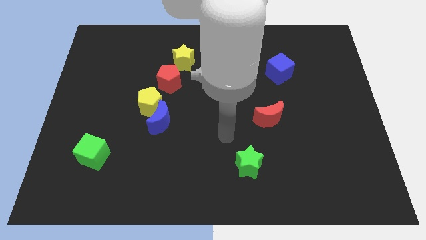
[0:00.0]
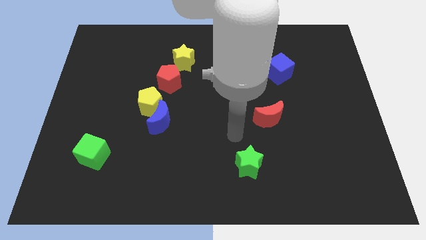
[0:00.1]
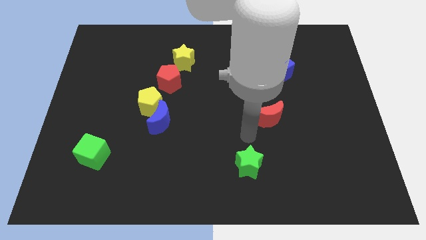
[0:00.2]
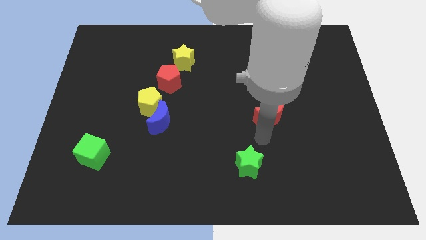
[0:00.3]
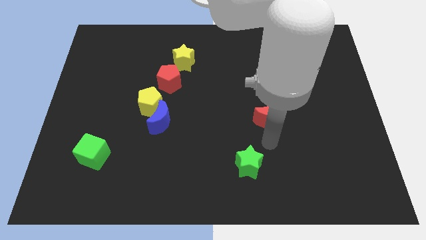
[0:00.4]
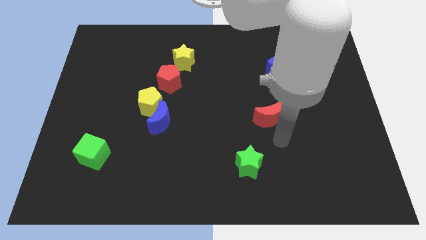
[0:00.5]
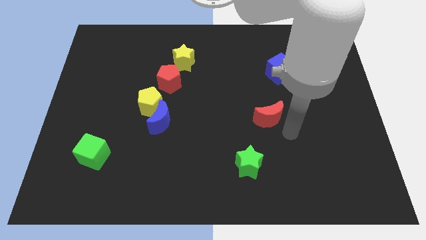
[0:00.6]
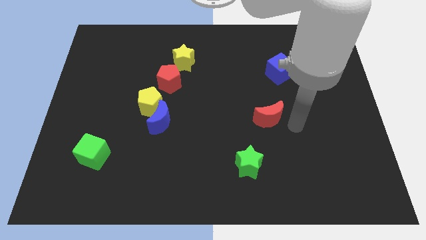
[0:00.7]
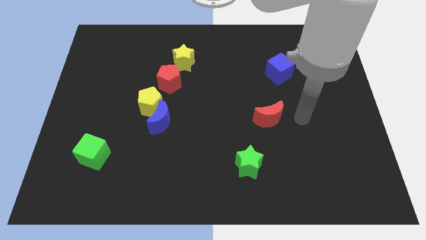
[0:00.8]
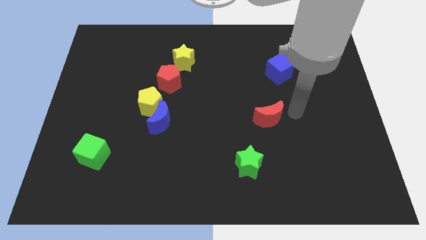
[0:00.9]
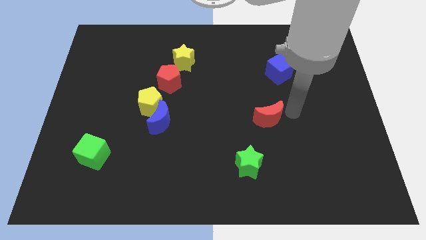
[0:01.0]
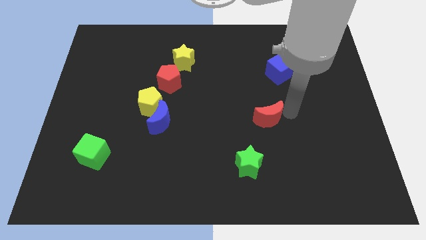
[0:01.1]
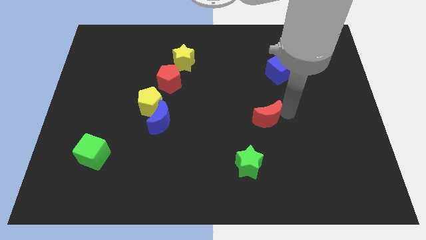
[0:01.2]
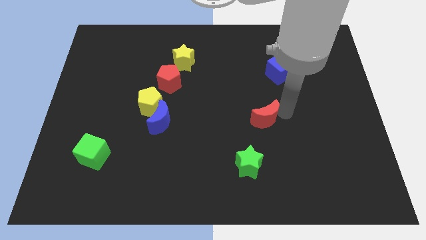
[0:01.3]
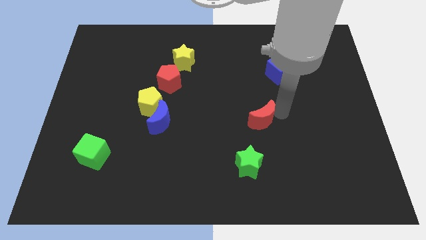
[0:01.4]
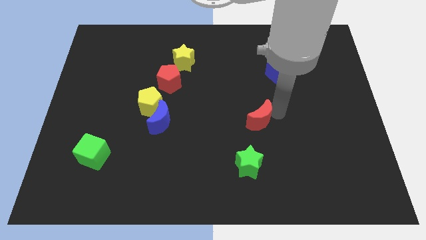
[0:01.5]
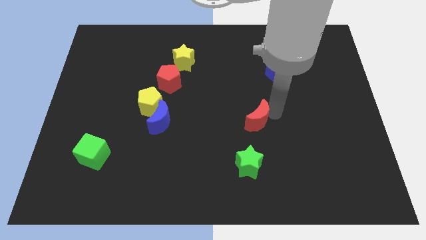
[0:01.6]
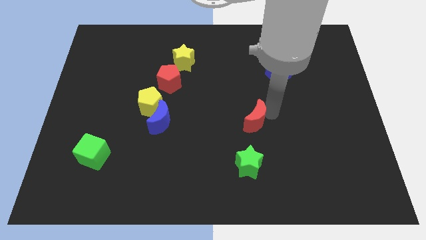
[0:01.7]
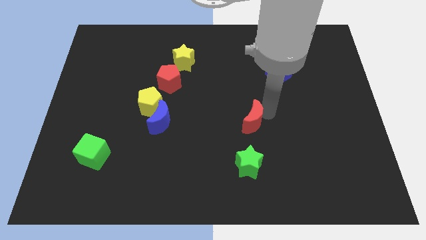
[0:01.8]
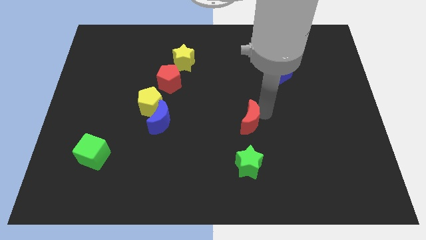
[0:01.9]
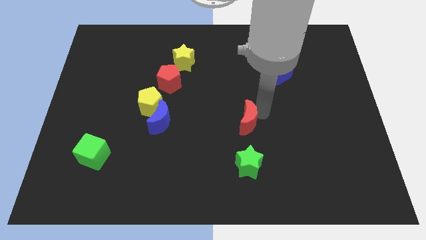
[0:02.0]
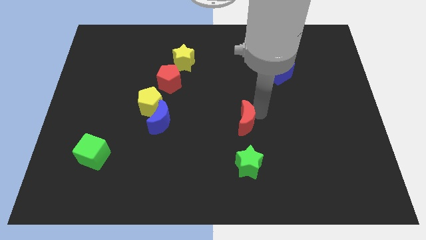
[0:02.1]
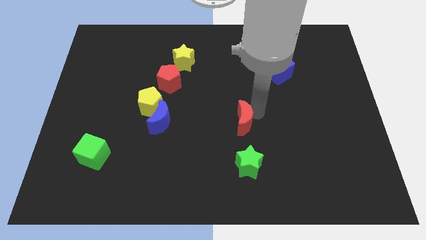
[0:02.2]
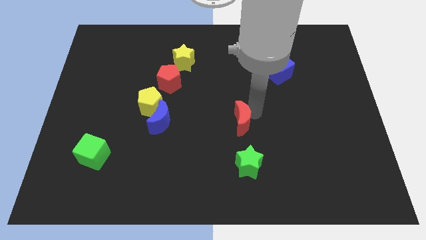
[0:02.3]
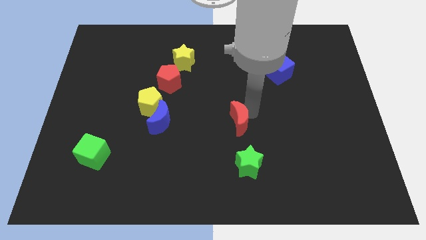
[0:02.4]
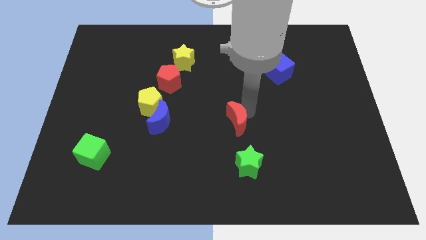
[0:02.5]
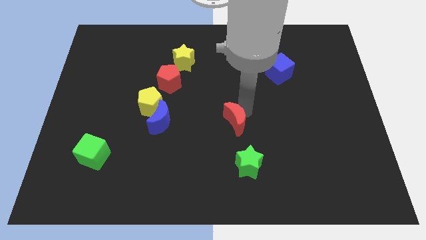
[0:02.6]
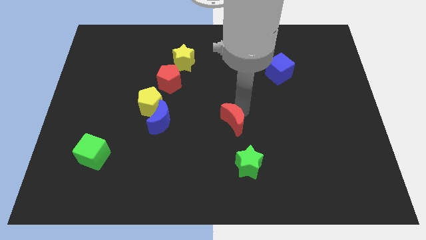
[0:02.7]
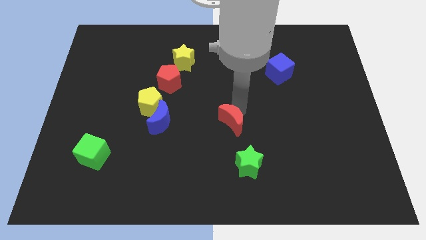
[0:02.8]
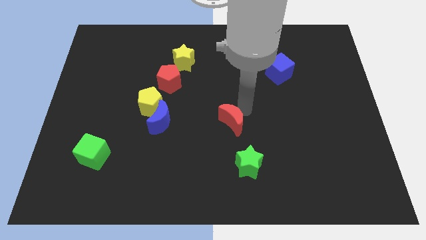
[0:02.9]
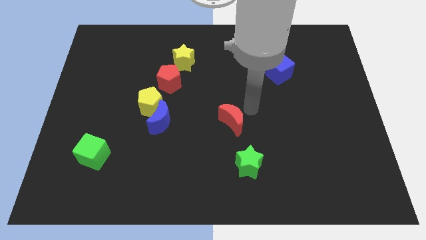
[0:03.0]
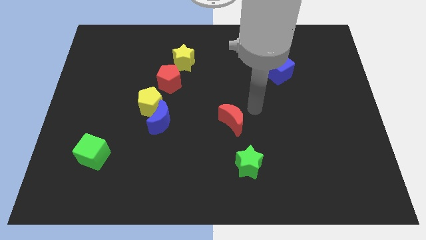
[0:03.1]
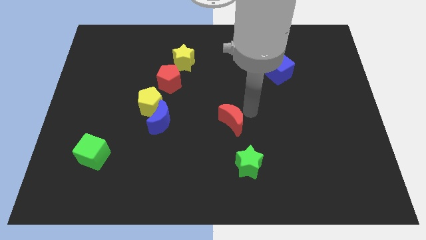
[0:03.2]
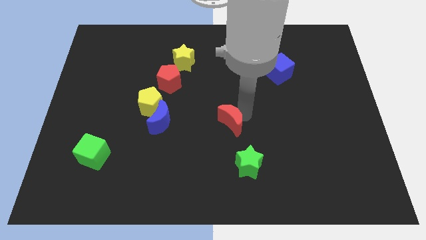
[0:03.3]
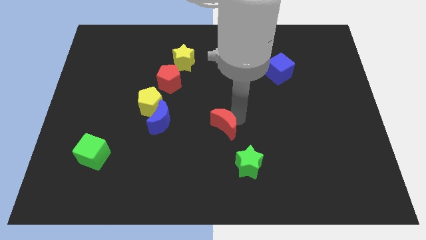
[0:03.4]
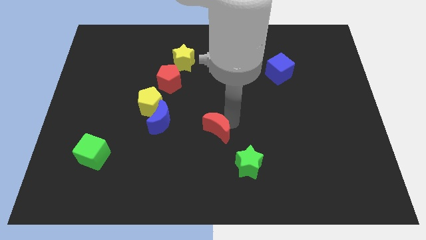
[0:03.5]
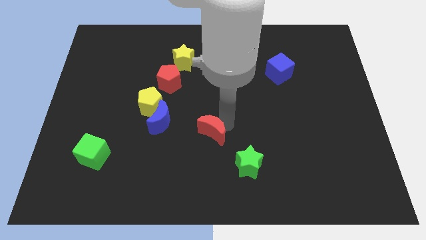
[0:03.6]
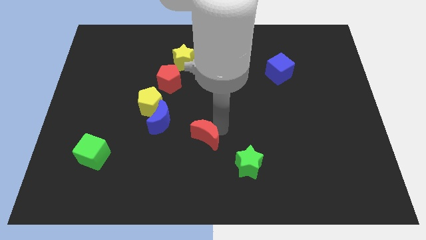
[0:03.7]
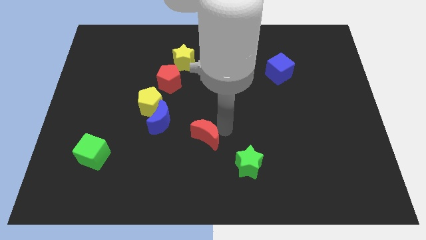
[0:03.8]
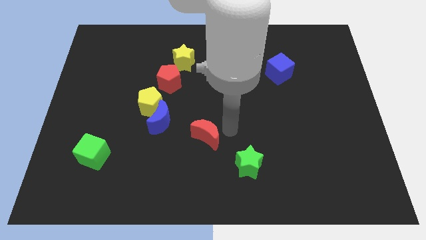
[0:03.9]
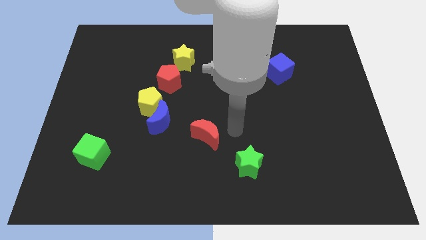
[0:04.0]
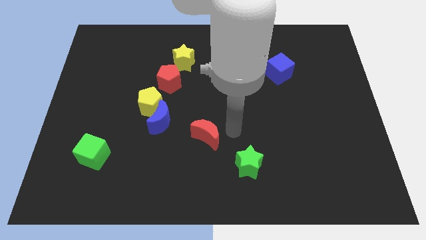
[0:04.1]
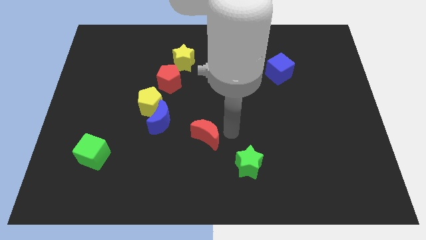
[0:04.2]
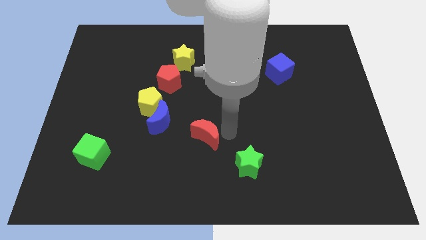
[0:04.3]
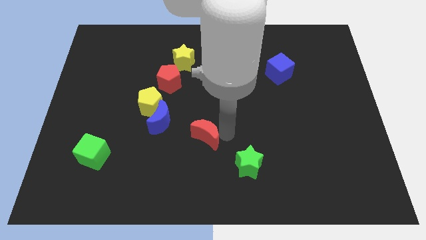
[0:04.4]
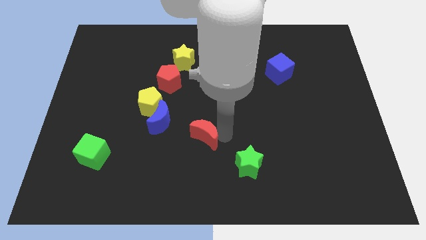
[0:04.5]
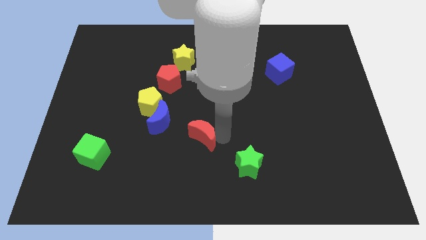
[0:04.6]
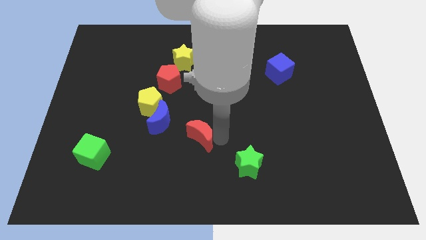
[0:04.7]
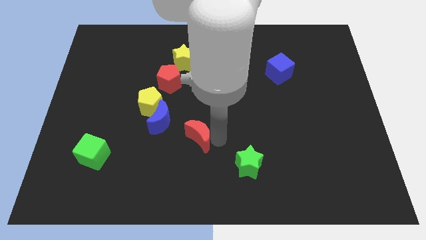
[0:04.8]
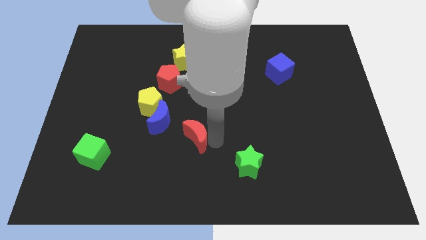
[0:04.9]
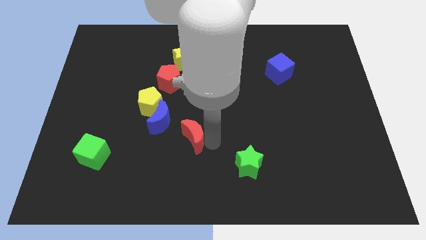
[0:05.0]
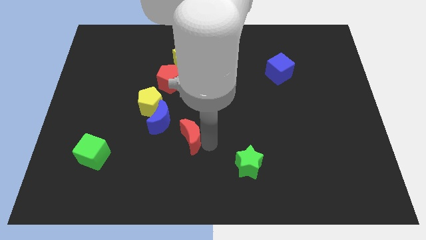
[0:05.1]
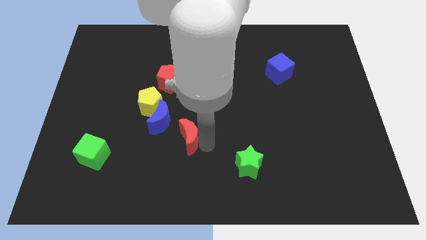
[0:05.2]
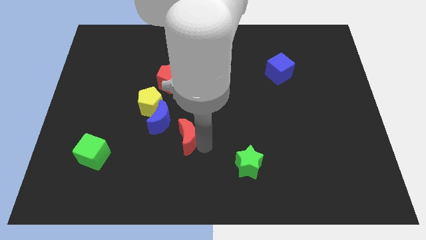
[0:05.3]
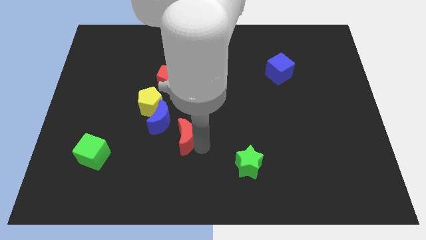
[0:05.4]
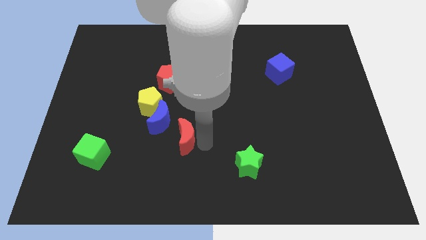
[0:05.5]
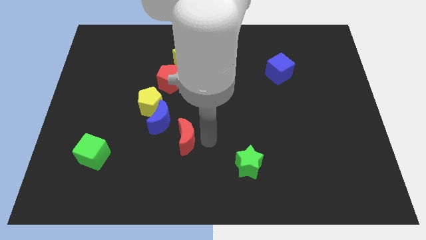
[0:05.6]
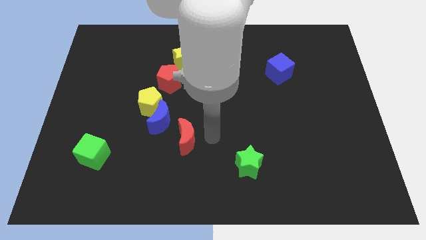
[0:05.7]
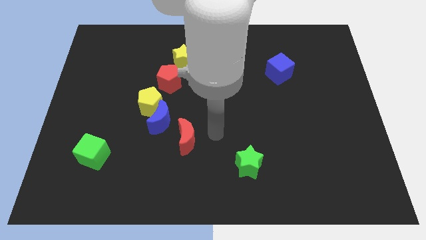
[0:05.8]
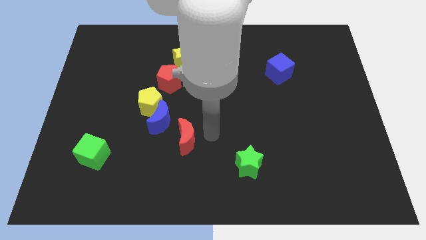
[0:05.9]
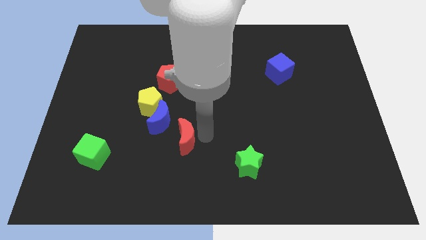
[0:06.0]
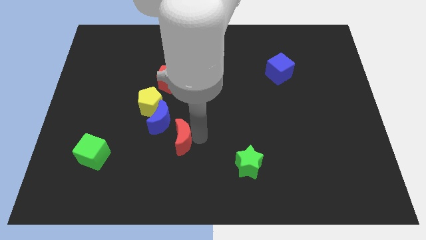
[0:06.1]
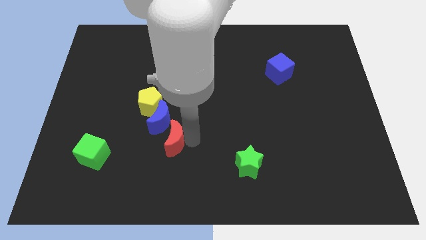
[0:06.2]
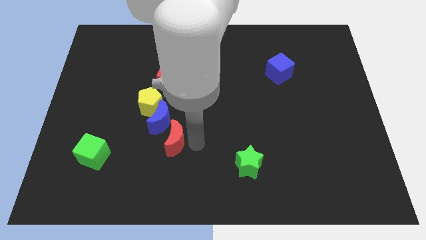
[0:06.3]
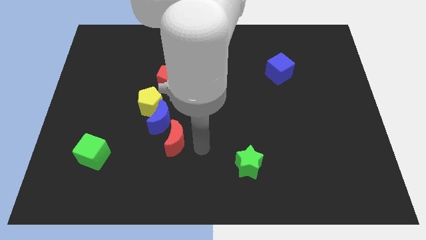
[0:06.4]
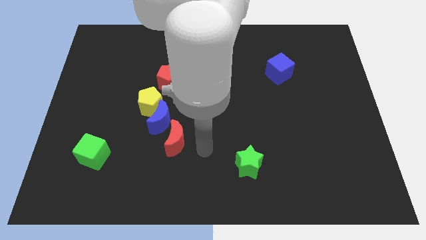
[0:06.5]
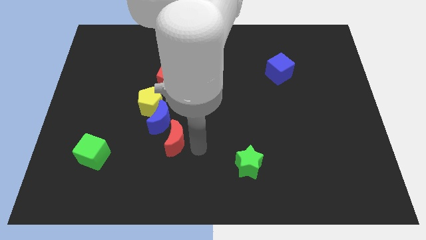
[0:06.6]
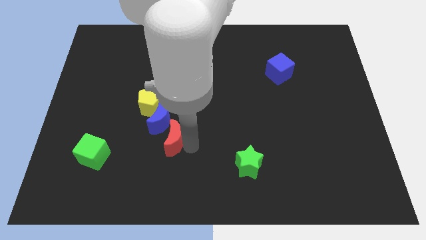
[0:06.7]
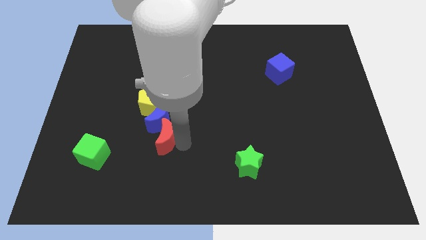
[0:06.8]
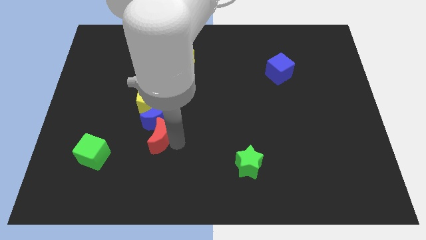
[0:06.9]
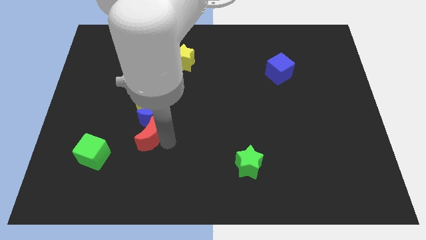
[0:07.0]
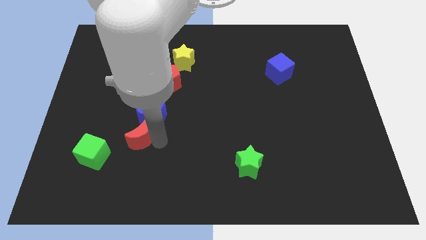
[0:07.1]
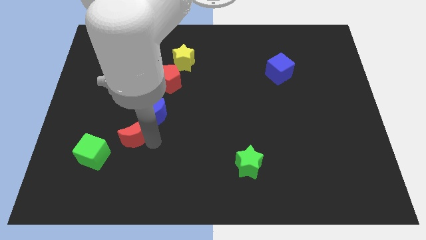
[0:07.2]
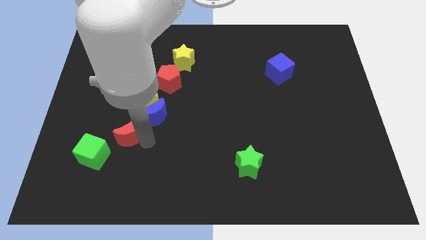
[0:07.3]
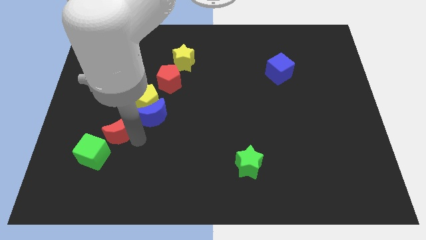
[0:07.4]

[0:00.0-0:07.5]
move the red moon to the left side of the blue moon
